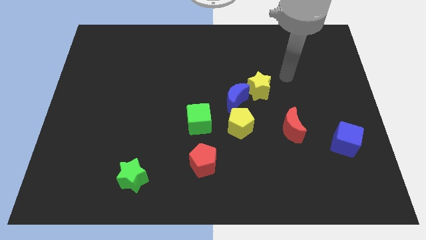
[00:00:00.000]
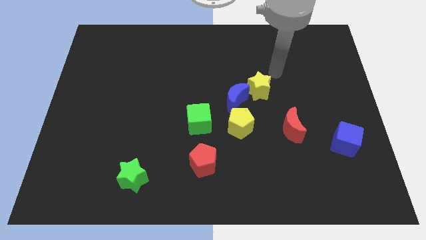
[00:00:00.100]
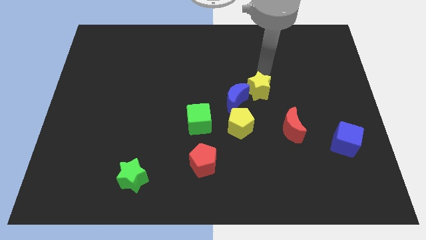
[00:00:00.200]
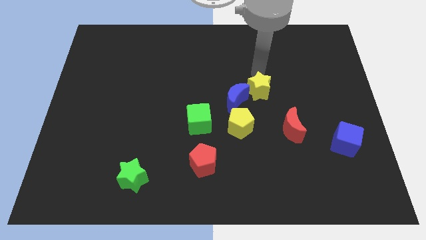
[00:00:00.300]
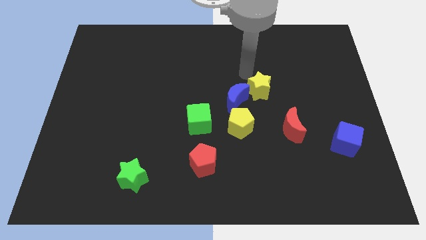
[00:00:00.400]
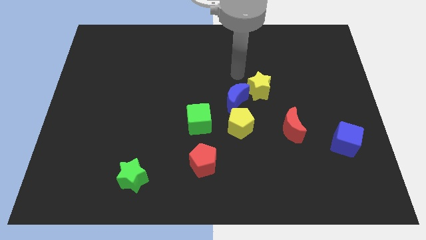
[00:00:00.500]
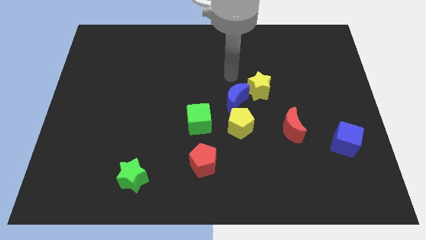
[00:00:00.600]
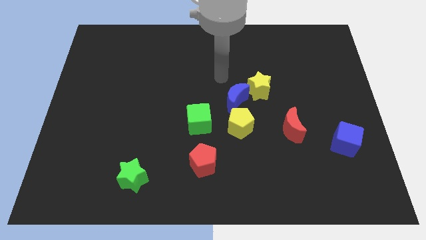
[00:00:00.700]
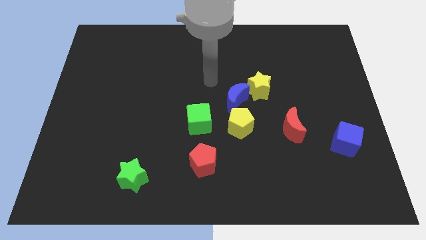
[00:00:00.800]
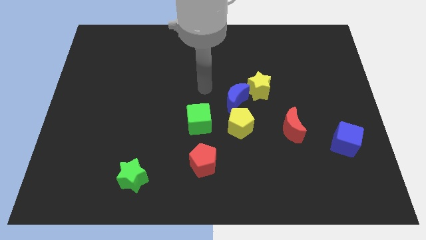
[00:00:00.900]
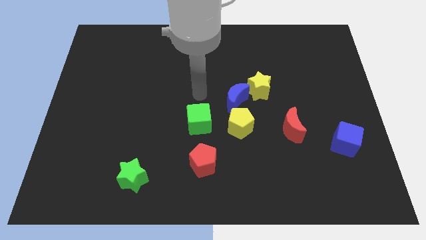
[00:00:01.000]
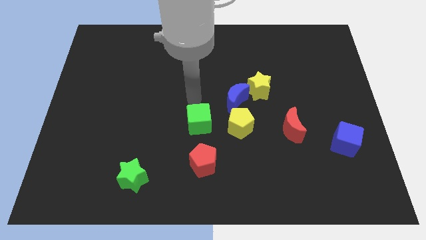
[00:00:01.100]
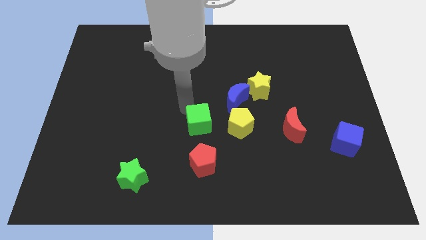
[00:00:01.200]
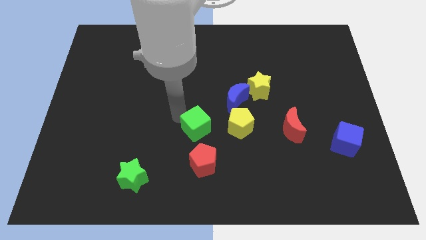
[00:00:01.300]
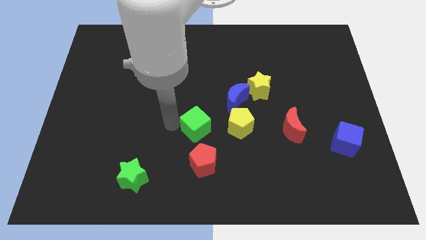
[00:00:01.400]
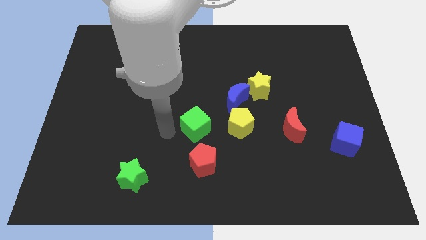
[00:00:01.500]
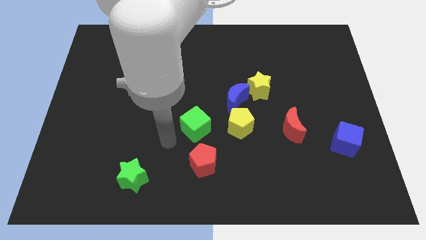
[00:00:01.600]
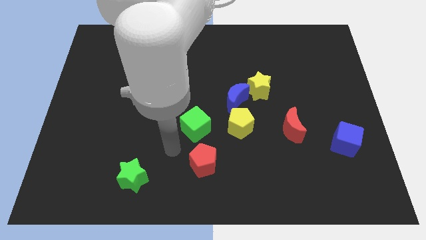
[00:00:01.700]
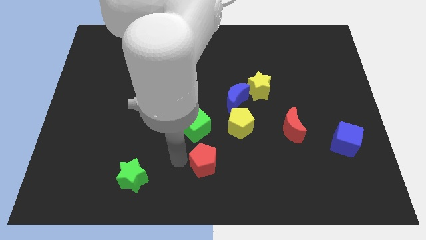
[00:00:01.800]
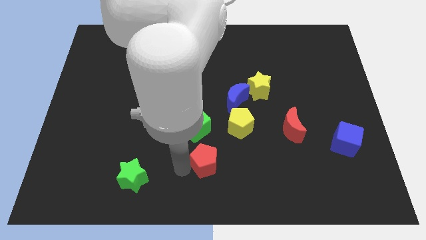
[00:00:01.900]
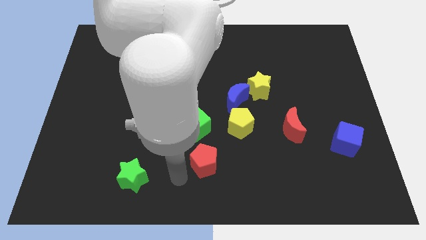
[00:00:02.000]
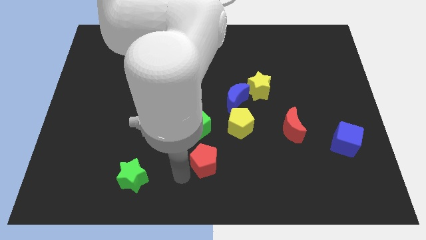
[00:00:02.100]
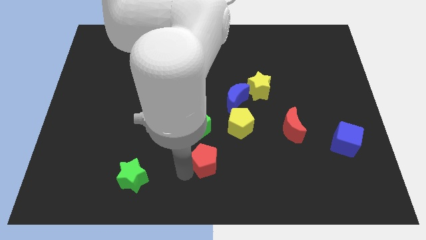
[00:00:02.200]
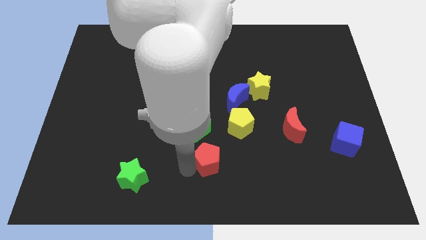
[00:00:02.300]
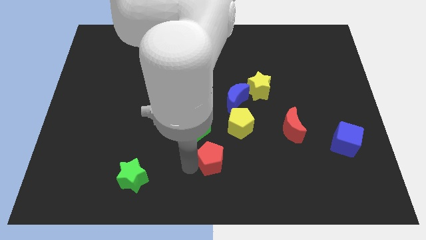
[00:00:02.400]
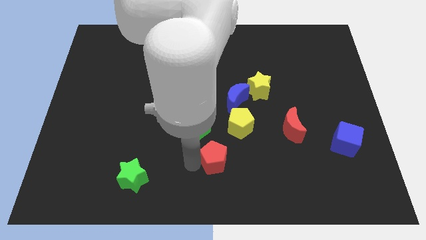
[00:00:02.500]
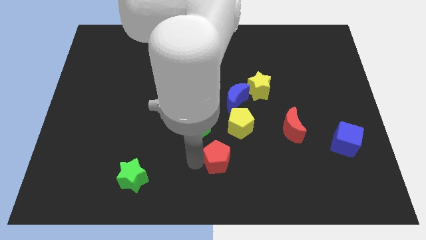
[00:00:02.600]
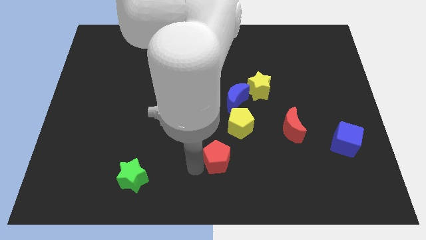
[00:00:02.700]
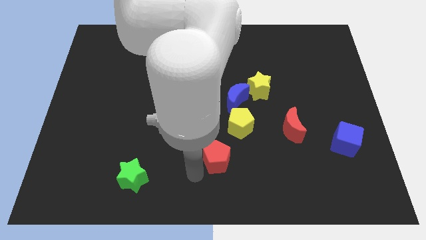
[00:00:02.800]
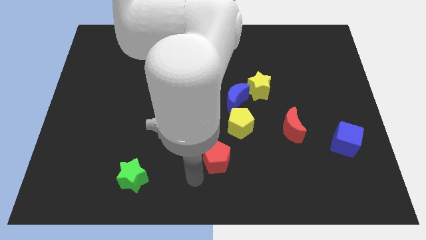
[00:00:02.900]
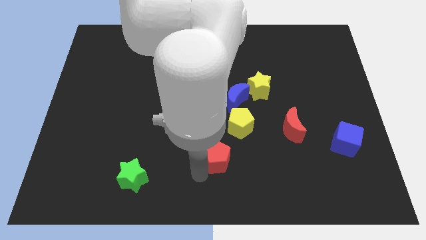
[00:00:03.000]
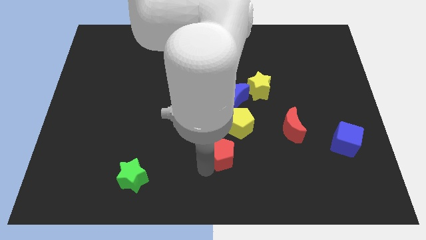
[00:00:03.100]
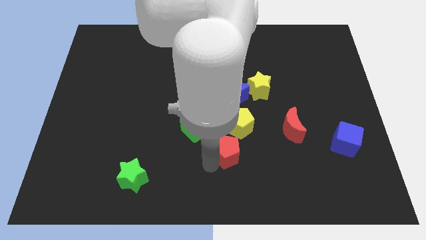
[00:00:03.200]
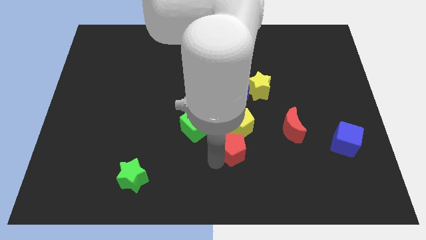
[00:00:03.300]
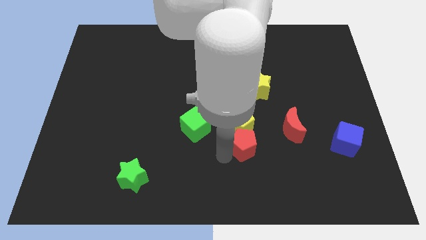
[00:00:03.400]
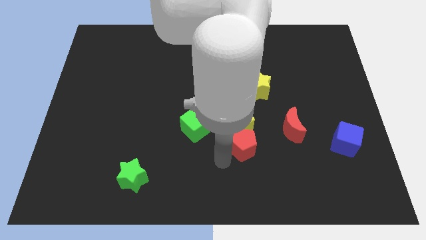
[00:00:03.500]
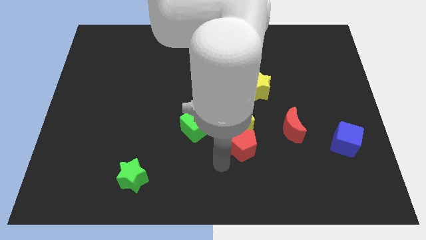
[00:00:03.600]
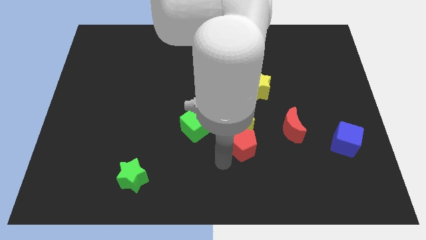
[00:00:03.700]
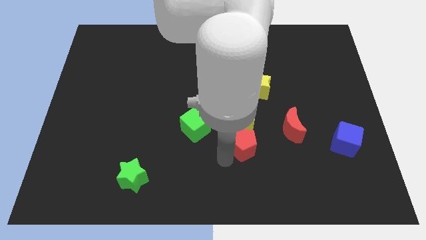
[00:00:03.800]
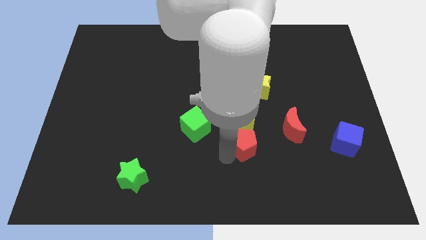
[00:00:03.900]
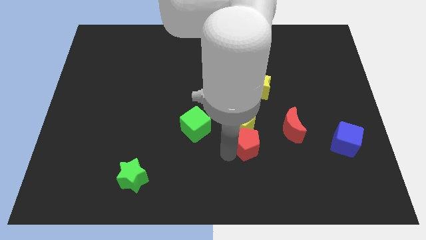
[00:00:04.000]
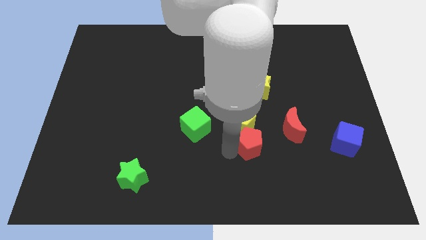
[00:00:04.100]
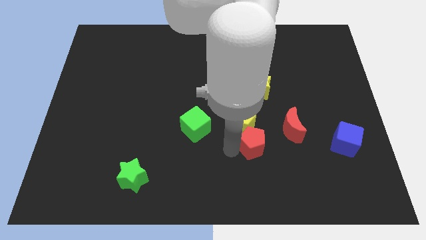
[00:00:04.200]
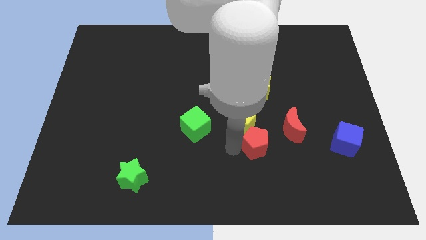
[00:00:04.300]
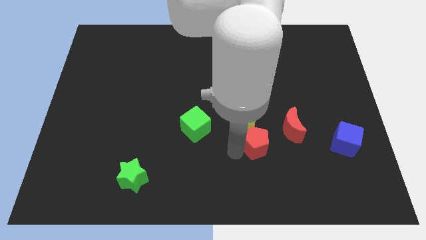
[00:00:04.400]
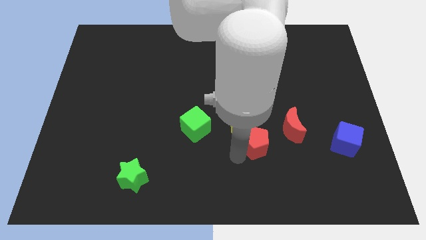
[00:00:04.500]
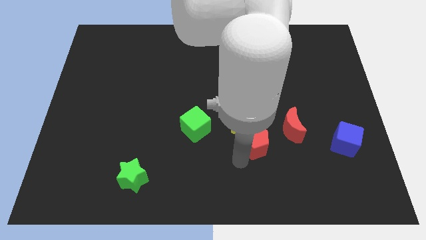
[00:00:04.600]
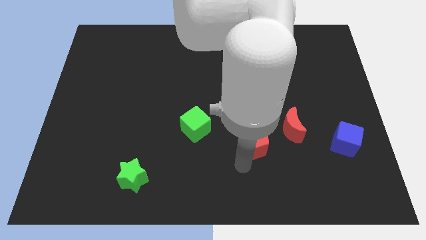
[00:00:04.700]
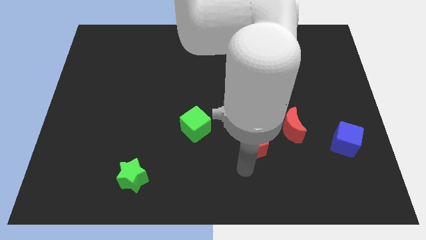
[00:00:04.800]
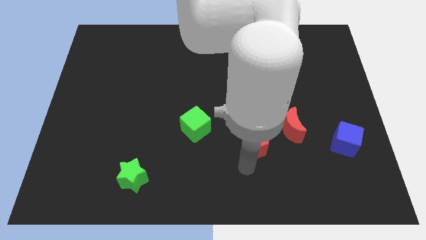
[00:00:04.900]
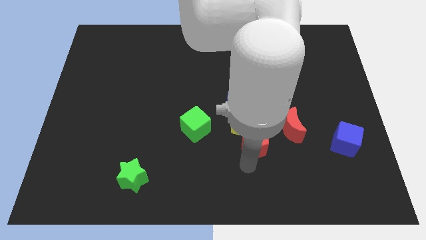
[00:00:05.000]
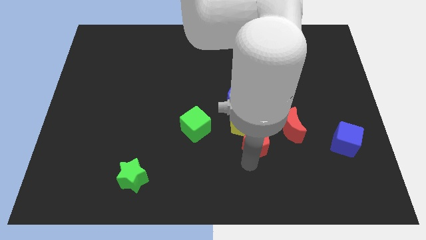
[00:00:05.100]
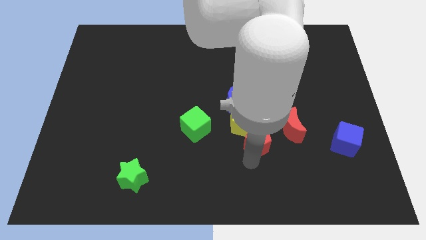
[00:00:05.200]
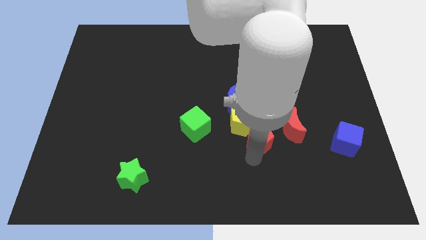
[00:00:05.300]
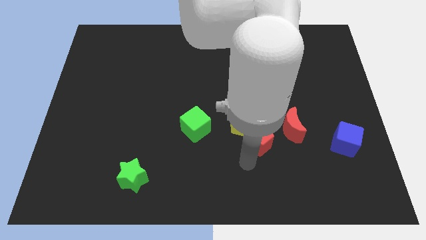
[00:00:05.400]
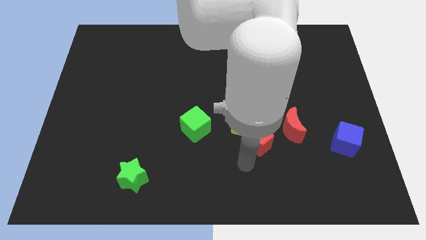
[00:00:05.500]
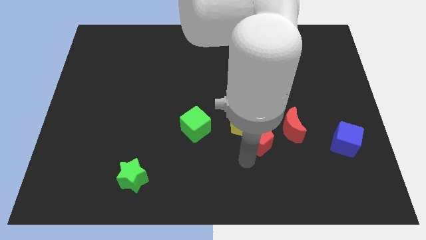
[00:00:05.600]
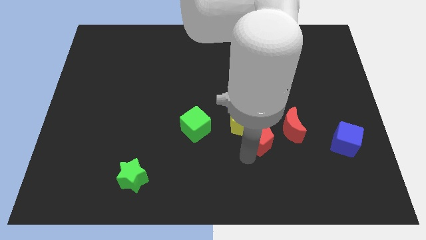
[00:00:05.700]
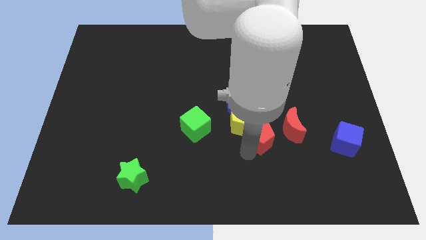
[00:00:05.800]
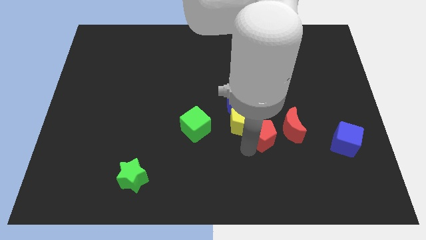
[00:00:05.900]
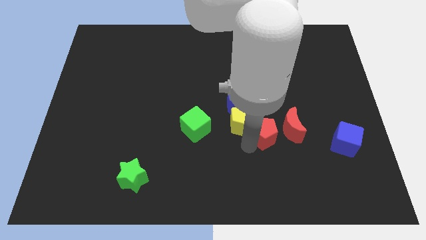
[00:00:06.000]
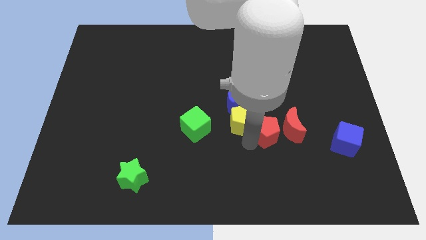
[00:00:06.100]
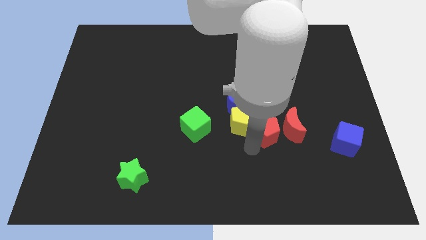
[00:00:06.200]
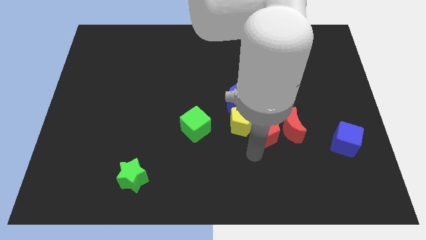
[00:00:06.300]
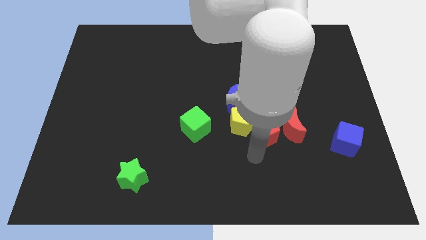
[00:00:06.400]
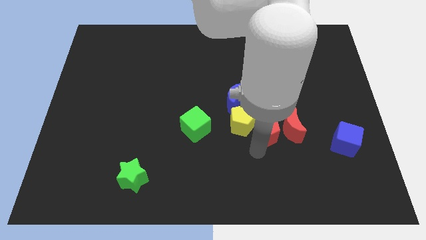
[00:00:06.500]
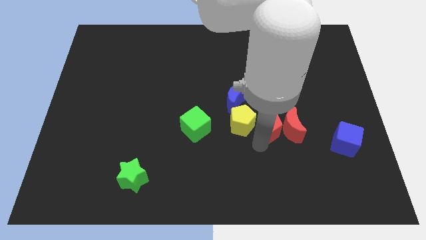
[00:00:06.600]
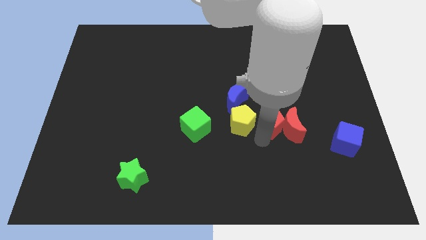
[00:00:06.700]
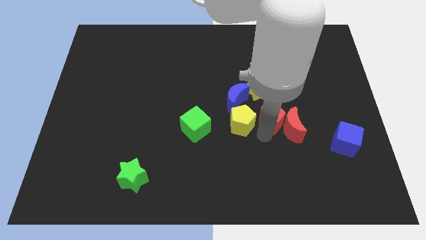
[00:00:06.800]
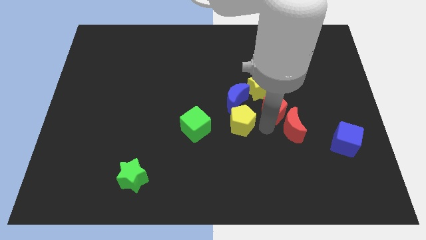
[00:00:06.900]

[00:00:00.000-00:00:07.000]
push the red pentagon up and to the right diagonally

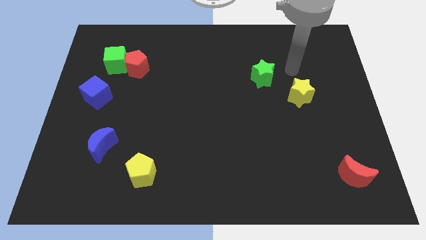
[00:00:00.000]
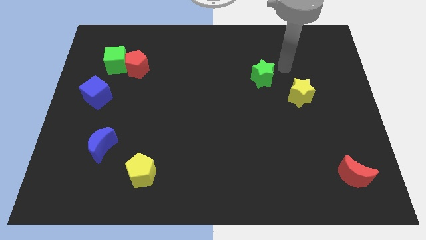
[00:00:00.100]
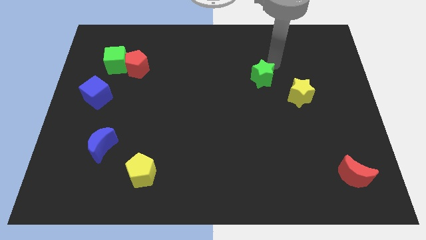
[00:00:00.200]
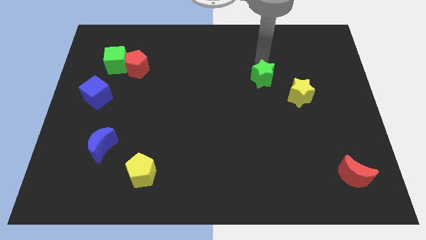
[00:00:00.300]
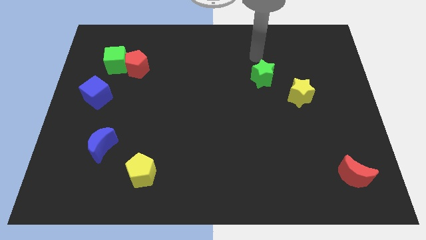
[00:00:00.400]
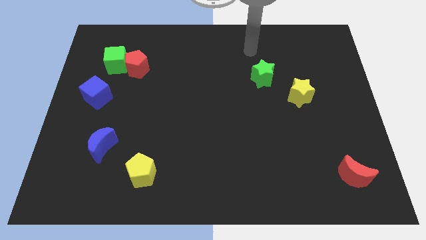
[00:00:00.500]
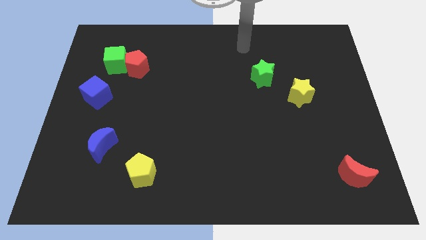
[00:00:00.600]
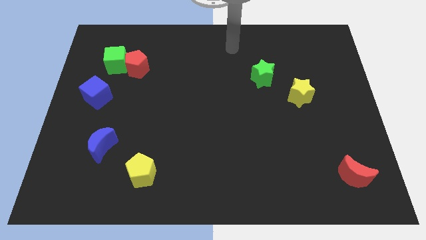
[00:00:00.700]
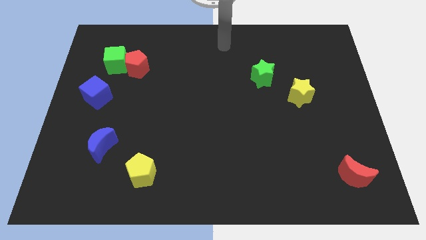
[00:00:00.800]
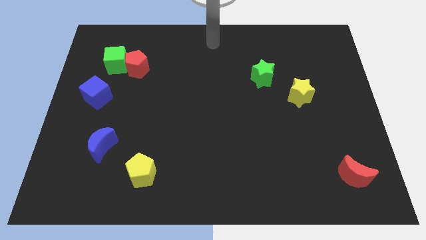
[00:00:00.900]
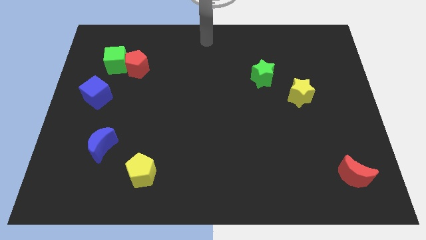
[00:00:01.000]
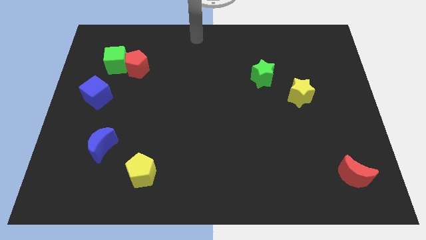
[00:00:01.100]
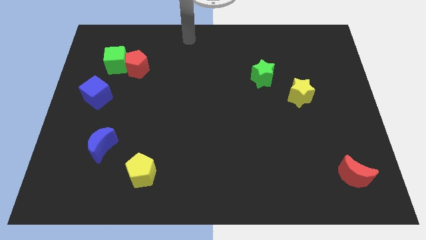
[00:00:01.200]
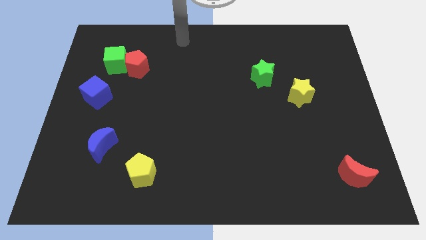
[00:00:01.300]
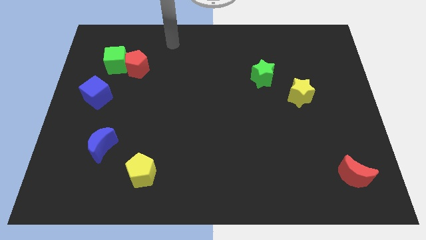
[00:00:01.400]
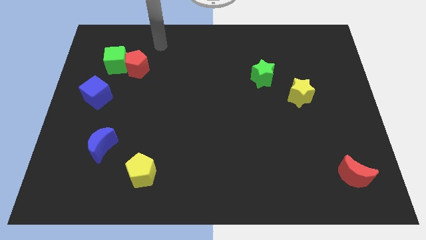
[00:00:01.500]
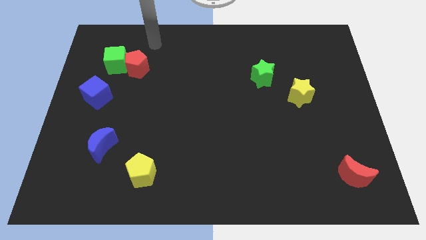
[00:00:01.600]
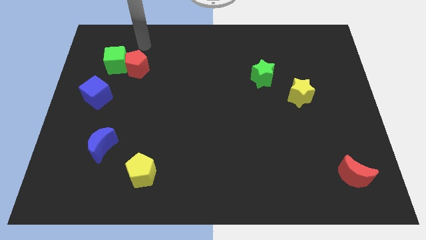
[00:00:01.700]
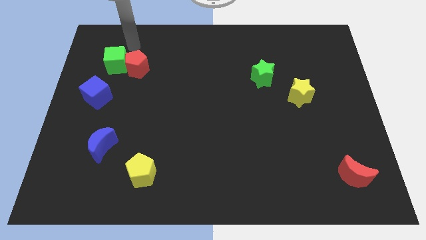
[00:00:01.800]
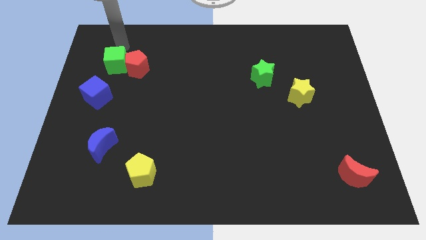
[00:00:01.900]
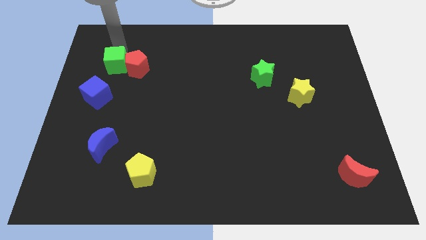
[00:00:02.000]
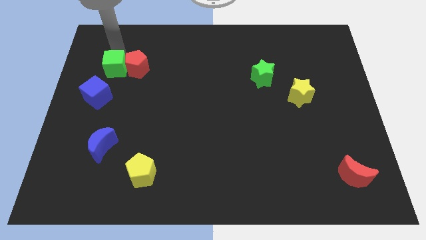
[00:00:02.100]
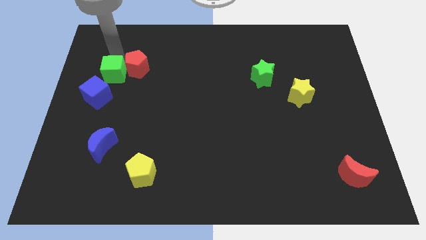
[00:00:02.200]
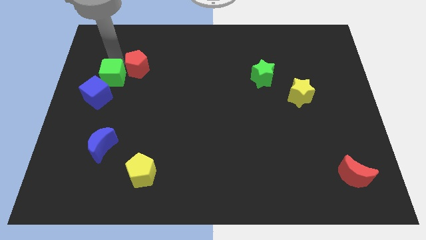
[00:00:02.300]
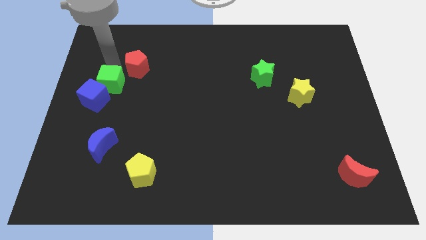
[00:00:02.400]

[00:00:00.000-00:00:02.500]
slide the green cube a little bit down
